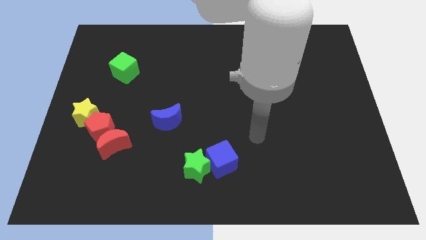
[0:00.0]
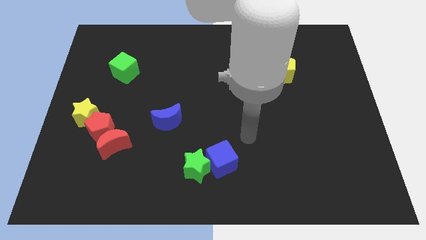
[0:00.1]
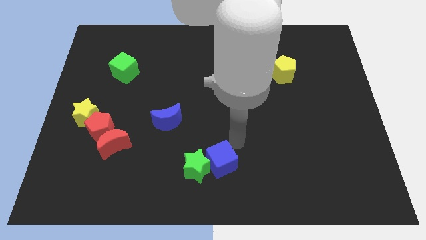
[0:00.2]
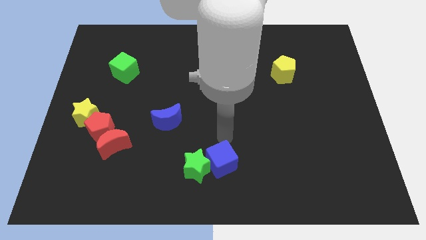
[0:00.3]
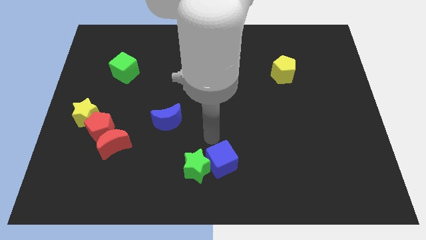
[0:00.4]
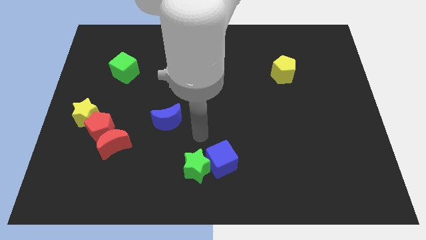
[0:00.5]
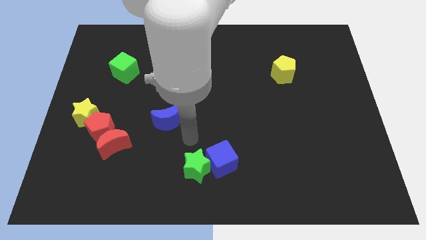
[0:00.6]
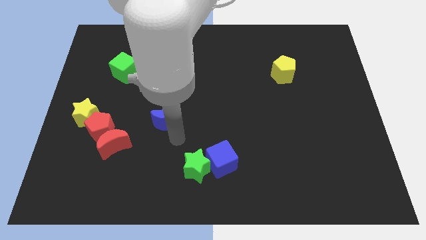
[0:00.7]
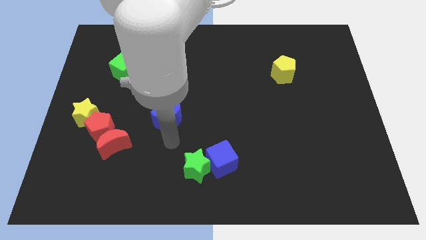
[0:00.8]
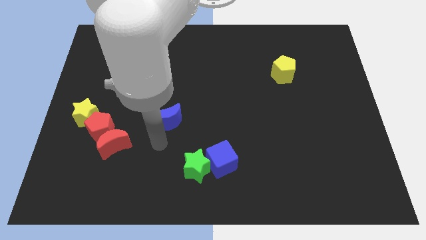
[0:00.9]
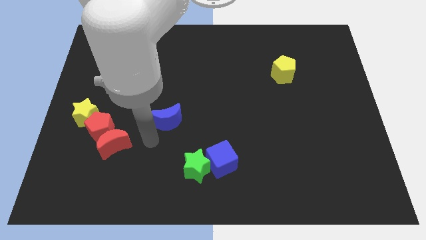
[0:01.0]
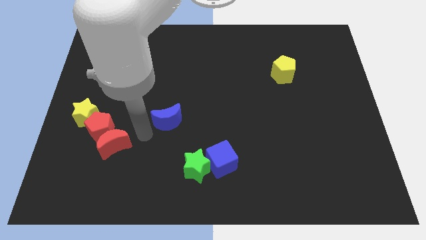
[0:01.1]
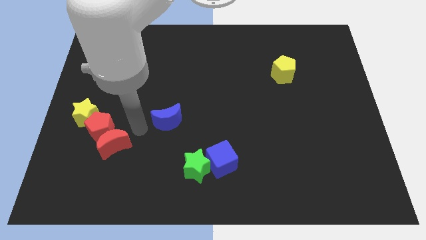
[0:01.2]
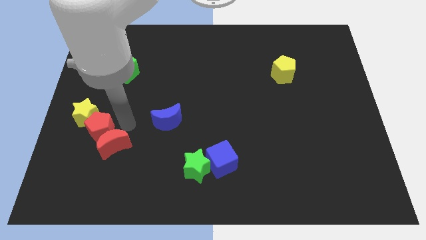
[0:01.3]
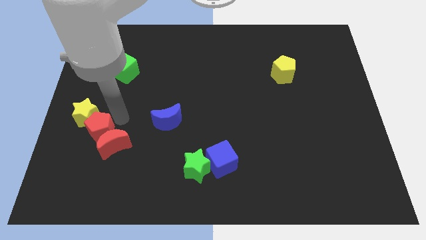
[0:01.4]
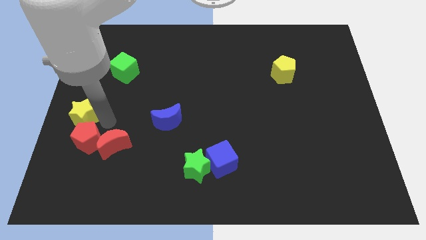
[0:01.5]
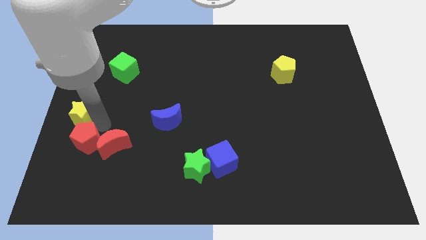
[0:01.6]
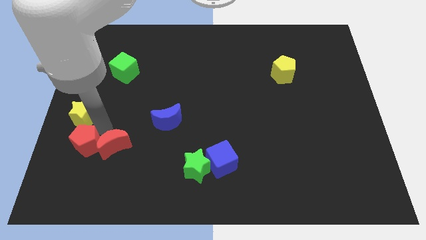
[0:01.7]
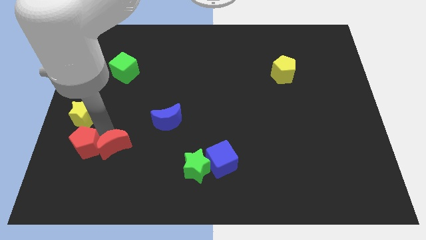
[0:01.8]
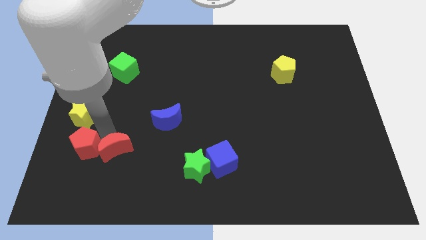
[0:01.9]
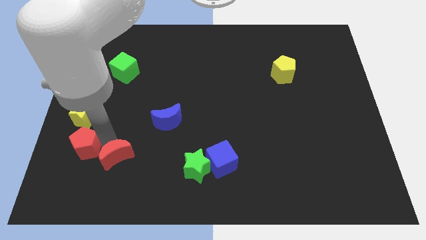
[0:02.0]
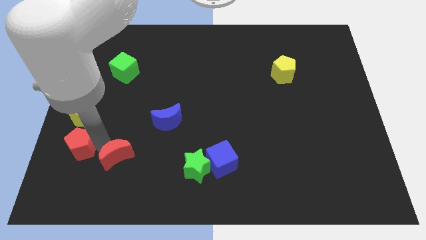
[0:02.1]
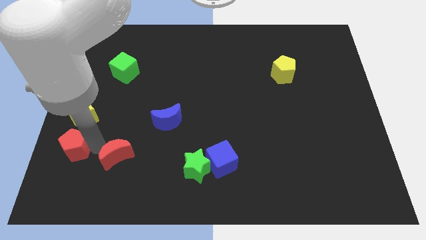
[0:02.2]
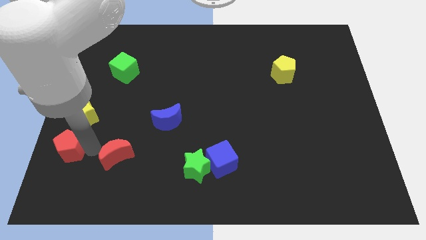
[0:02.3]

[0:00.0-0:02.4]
move the red moon away from the red pentagon

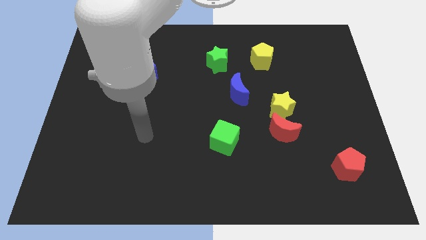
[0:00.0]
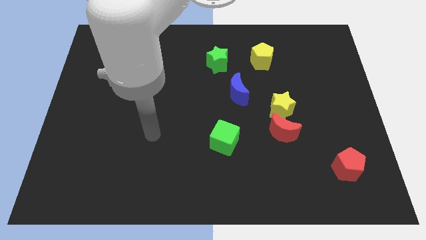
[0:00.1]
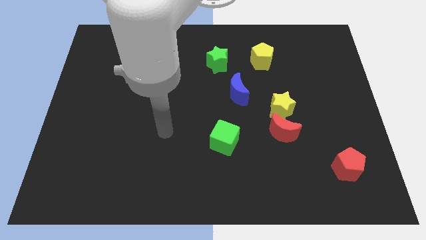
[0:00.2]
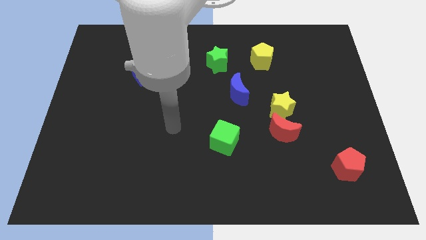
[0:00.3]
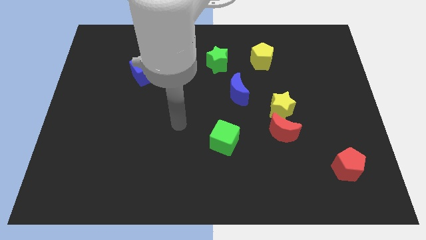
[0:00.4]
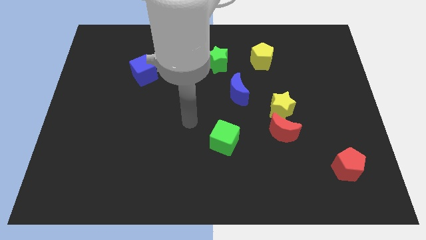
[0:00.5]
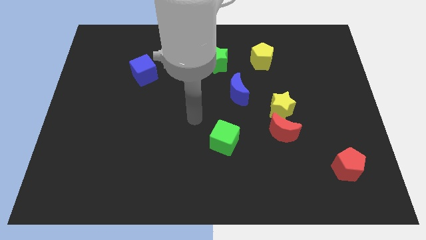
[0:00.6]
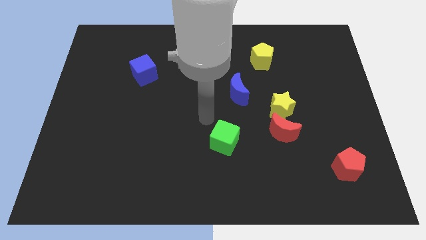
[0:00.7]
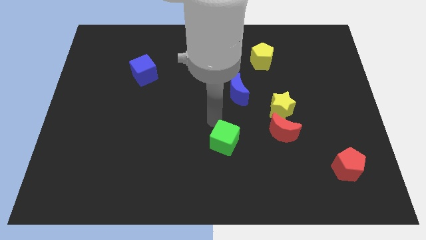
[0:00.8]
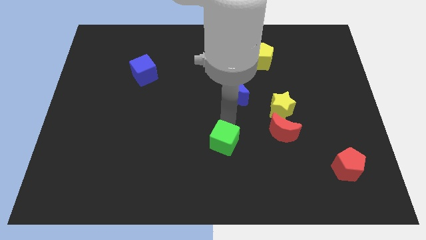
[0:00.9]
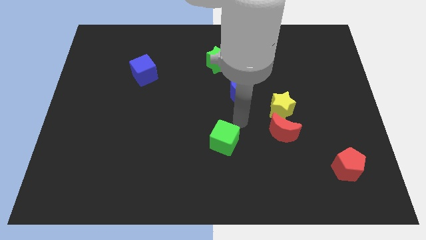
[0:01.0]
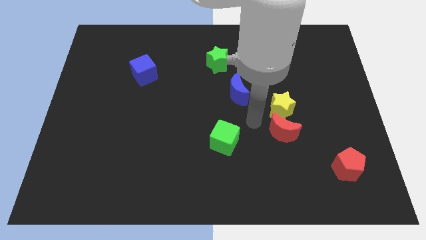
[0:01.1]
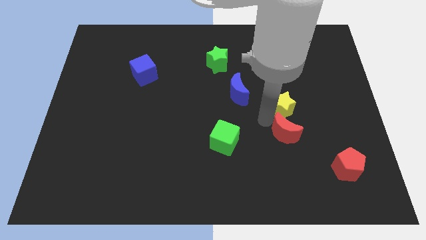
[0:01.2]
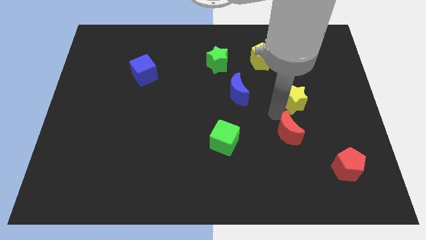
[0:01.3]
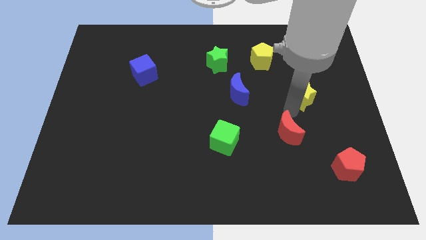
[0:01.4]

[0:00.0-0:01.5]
pull the red moon apart from the yellow star

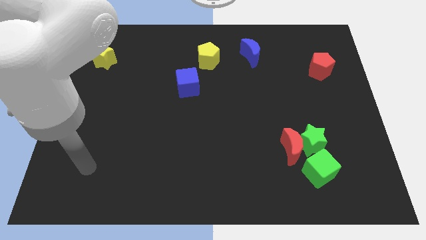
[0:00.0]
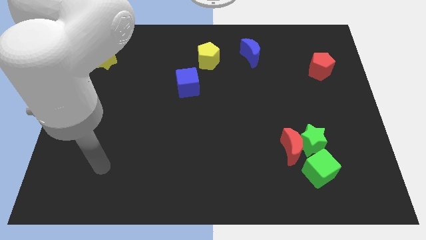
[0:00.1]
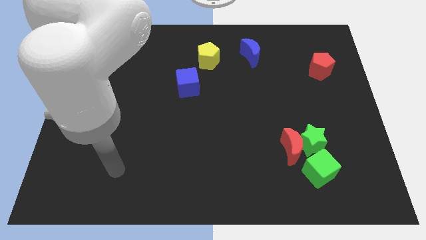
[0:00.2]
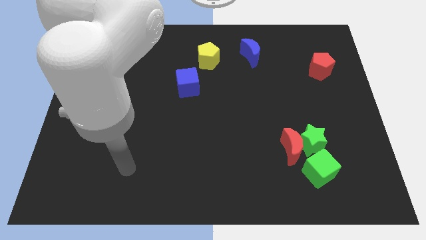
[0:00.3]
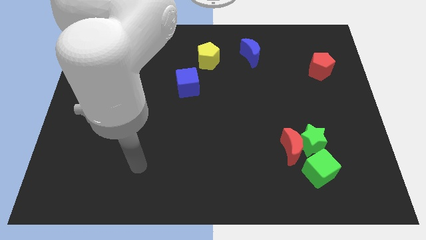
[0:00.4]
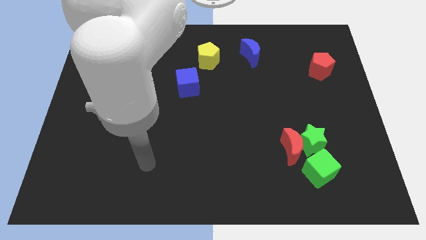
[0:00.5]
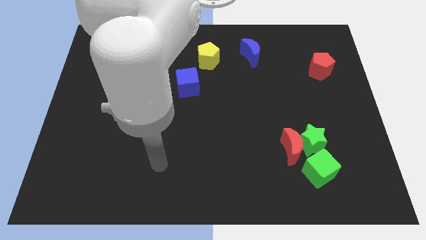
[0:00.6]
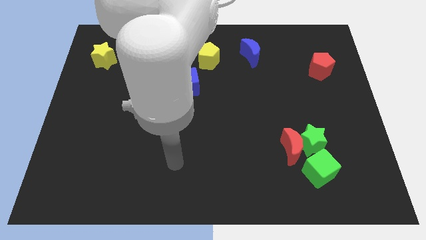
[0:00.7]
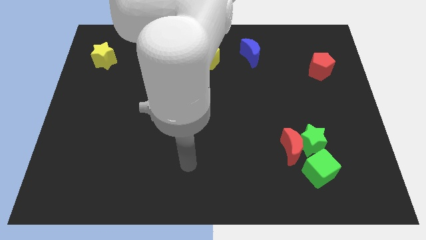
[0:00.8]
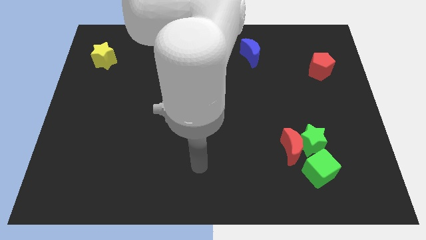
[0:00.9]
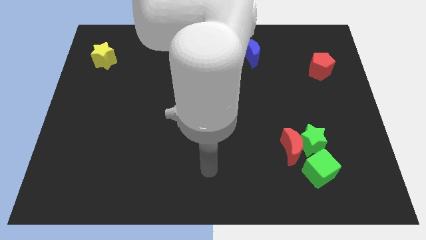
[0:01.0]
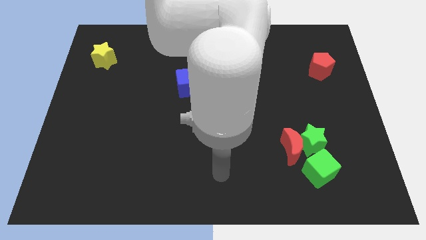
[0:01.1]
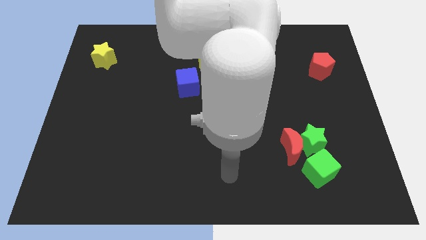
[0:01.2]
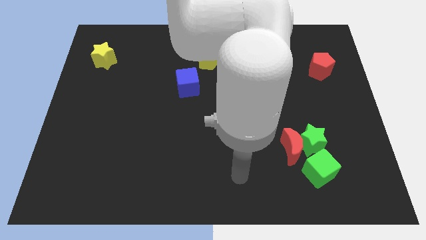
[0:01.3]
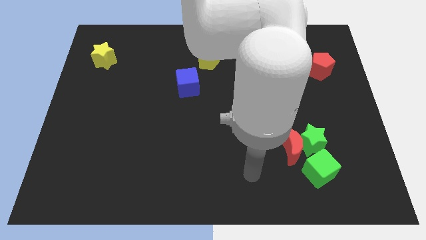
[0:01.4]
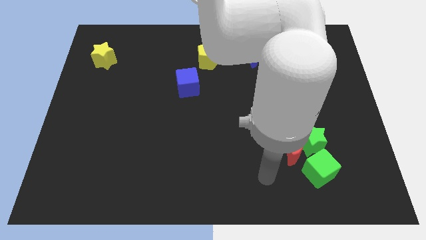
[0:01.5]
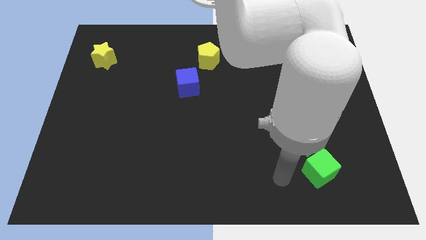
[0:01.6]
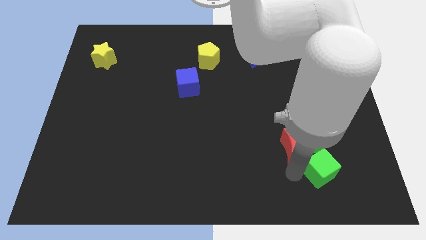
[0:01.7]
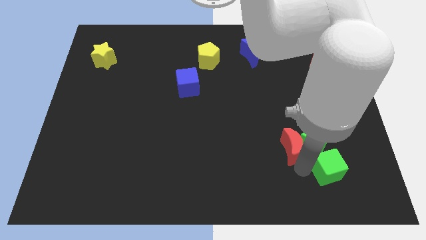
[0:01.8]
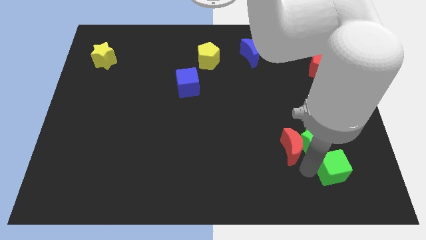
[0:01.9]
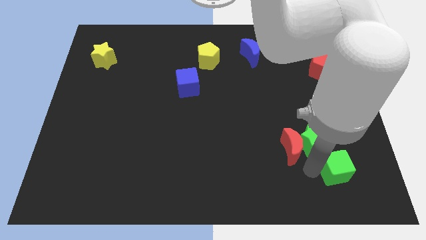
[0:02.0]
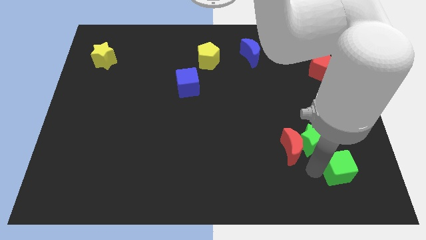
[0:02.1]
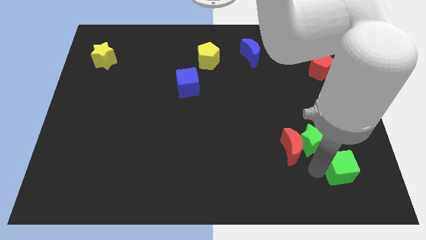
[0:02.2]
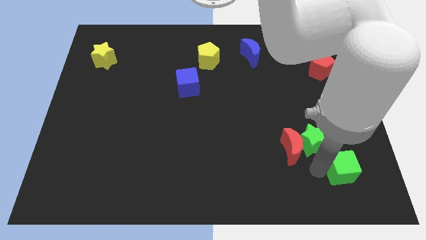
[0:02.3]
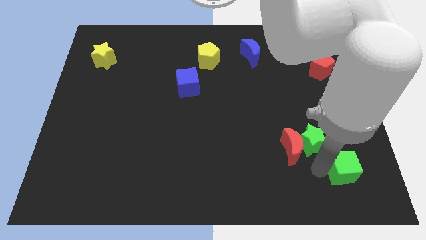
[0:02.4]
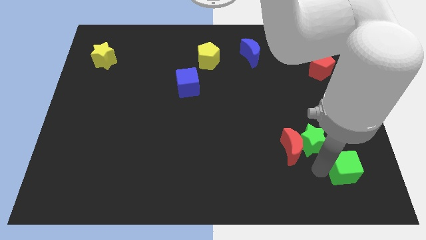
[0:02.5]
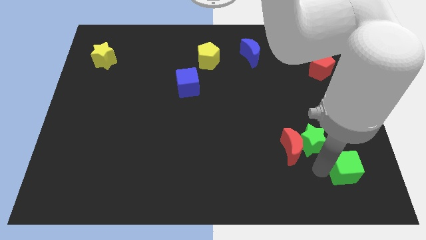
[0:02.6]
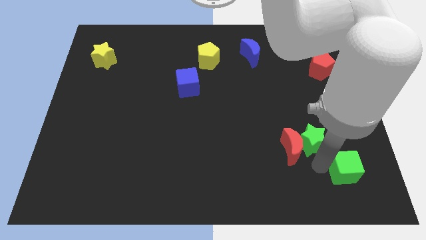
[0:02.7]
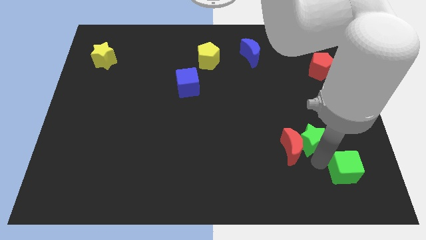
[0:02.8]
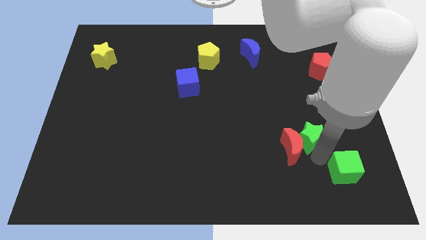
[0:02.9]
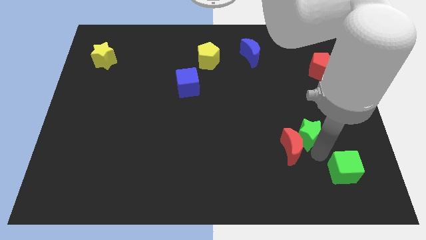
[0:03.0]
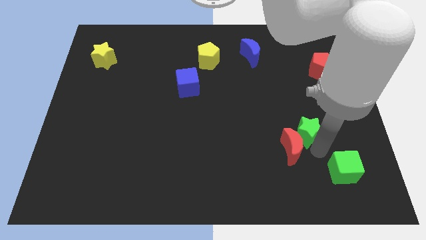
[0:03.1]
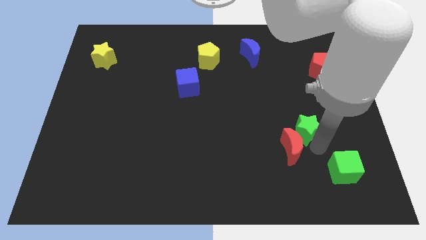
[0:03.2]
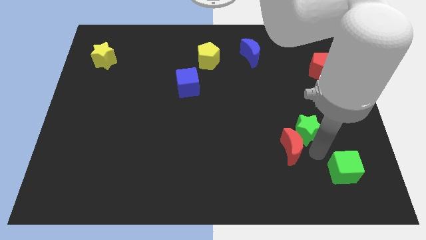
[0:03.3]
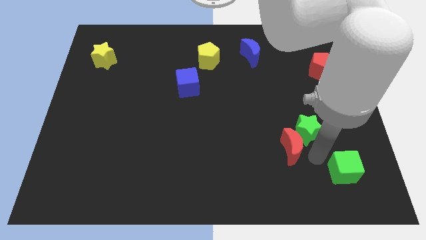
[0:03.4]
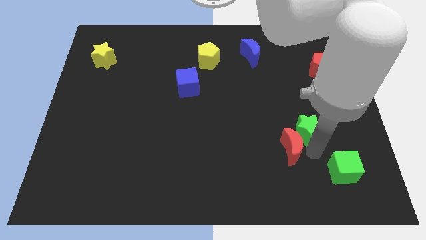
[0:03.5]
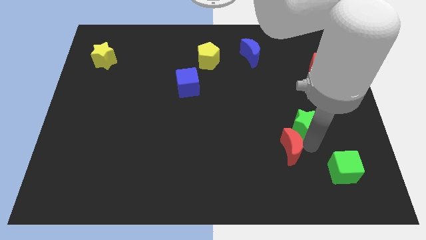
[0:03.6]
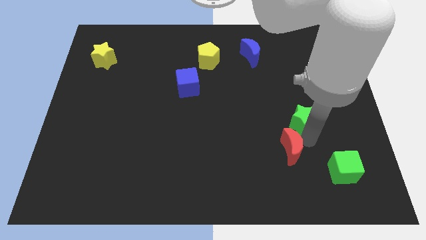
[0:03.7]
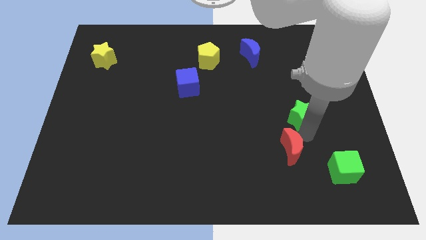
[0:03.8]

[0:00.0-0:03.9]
pull the green star apart from the red moon and green cube

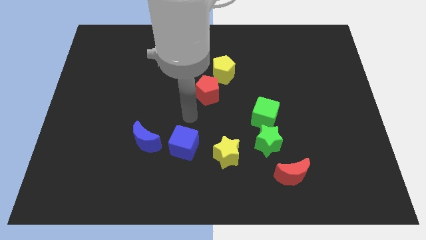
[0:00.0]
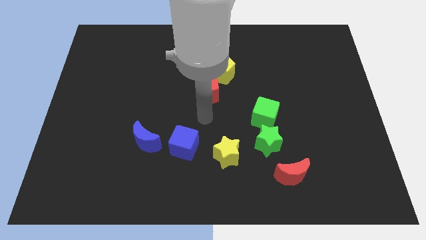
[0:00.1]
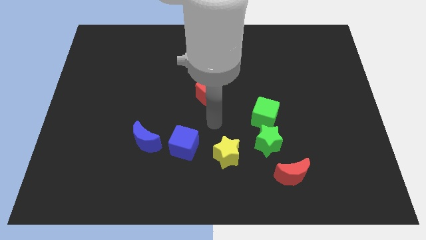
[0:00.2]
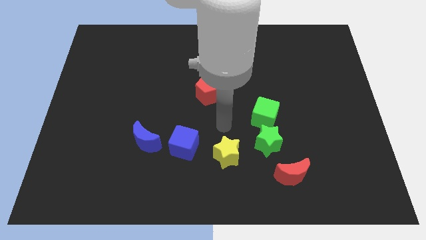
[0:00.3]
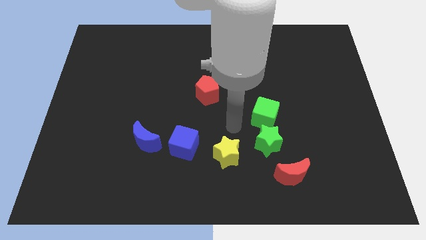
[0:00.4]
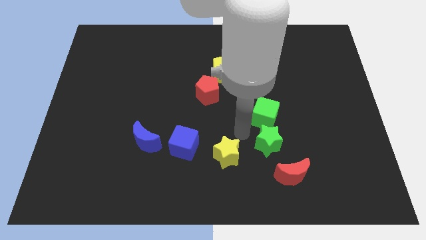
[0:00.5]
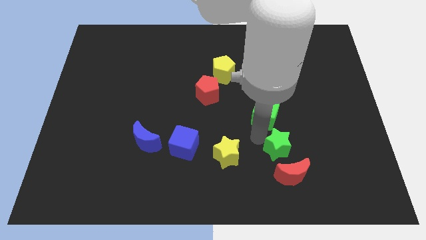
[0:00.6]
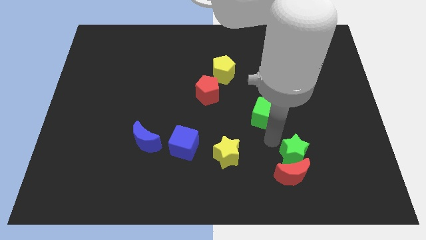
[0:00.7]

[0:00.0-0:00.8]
pull the green cube apart from the green star

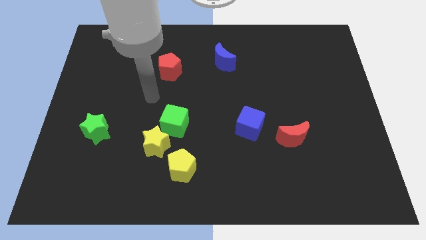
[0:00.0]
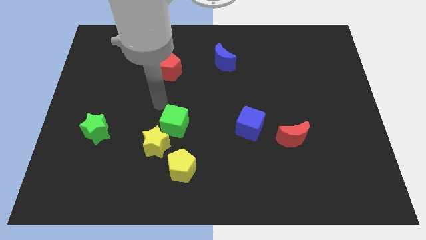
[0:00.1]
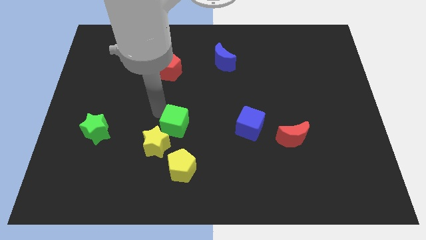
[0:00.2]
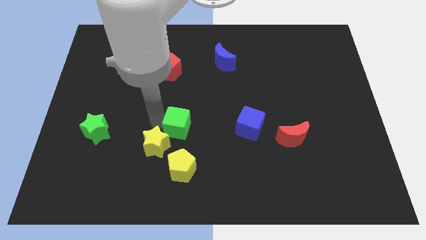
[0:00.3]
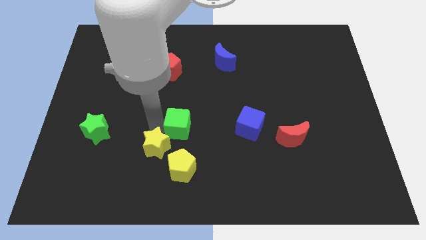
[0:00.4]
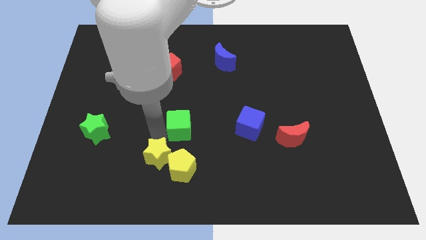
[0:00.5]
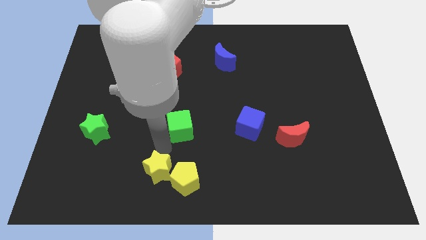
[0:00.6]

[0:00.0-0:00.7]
separate the green cube from the yellow star

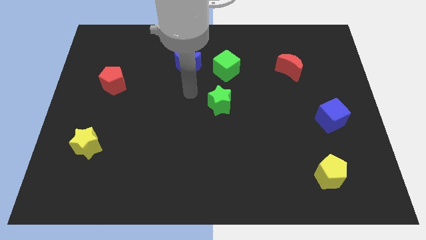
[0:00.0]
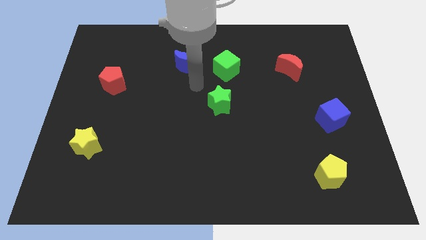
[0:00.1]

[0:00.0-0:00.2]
move the blue moon away from the green cube
